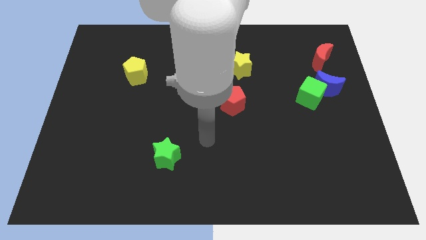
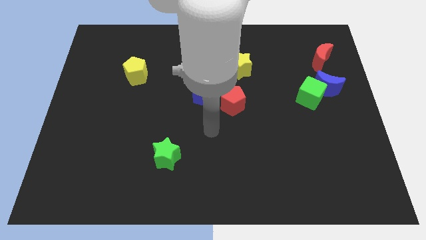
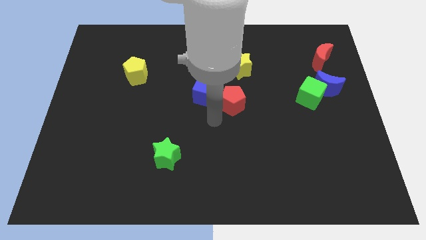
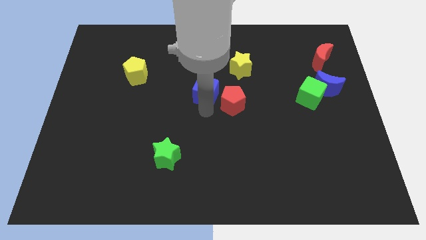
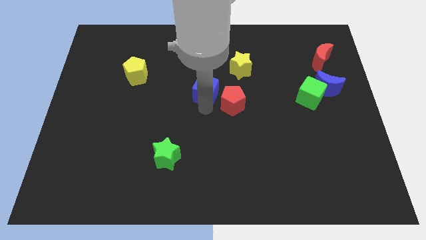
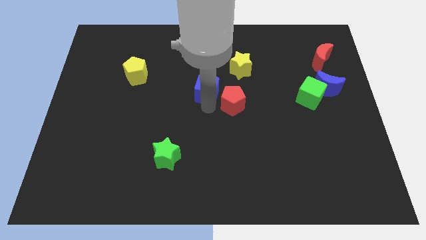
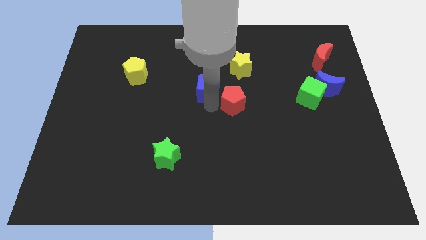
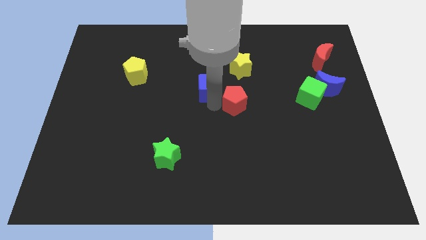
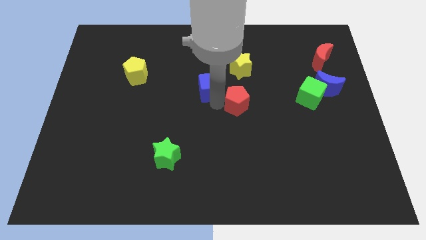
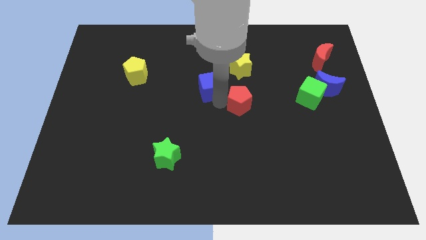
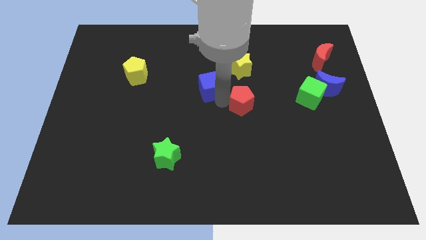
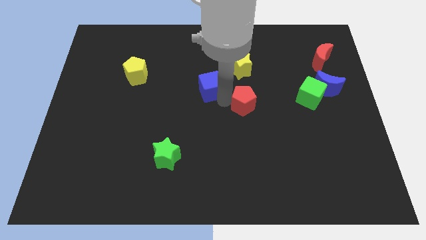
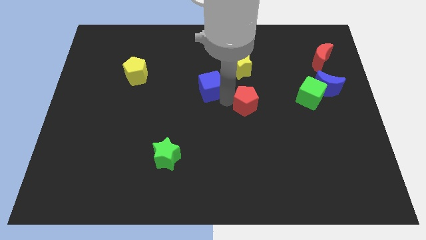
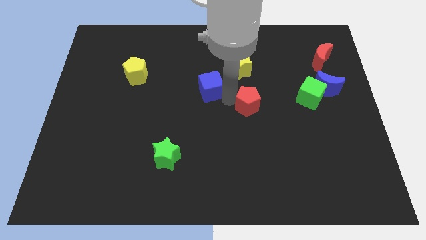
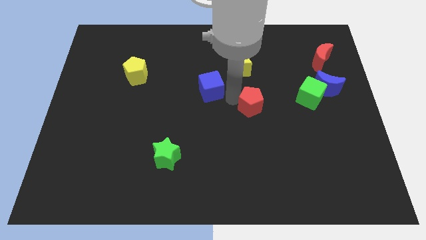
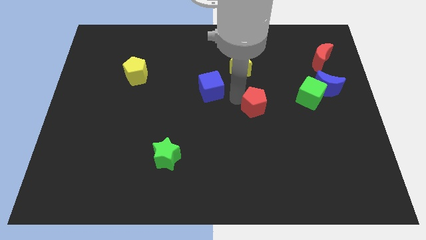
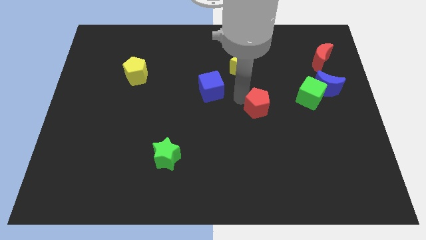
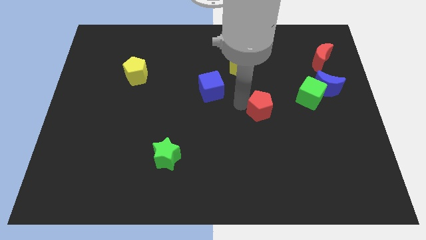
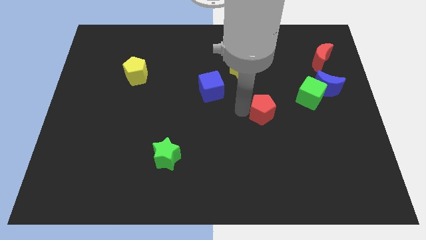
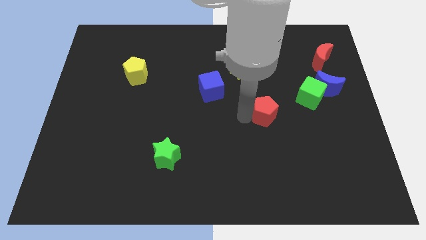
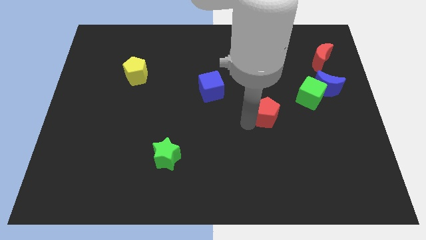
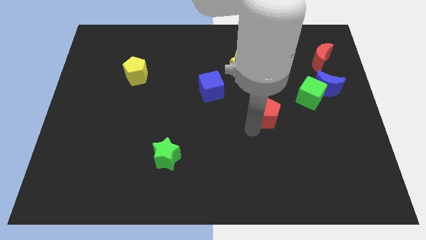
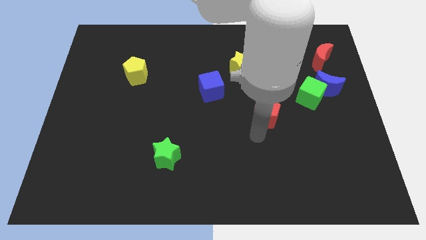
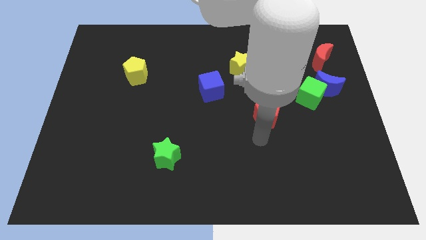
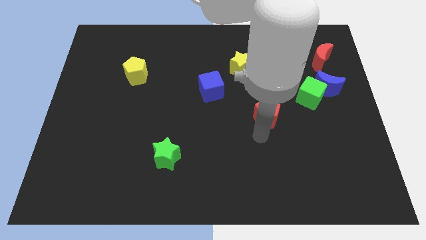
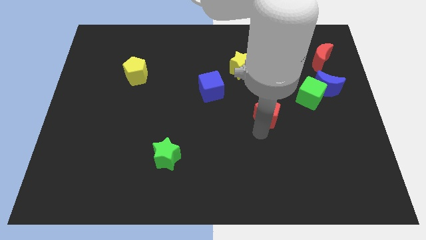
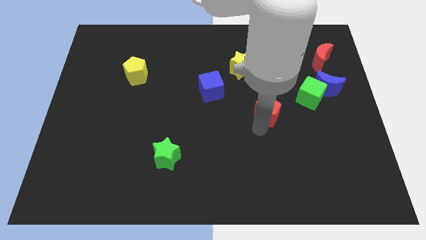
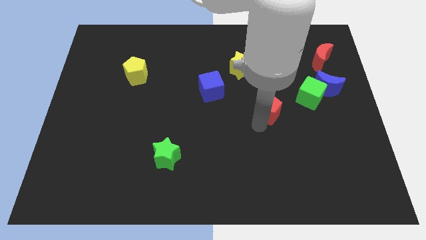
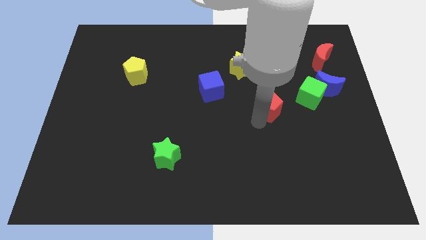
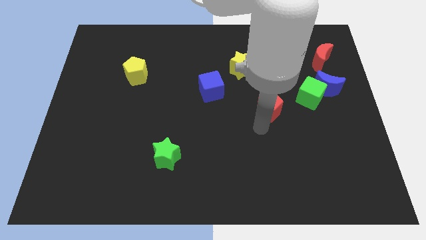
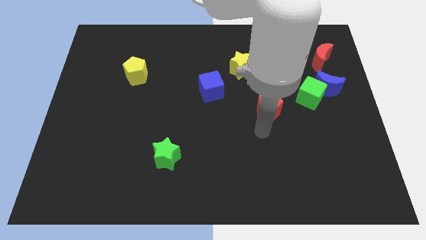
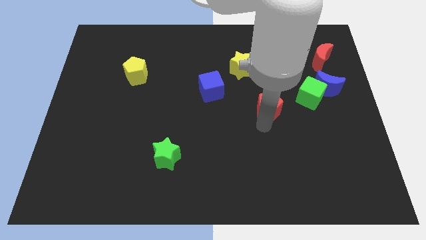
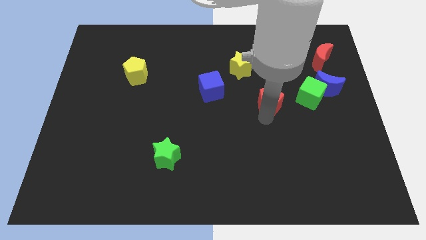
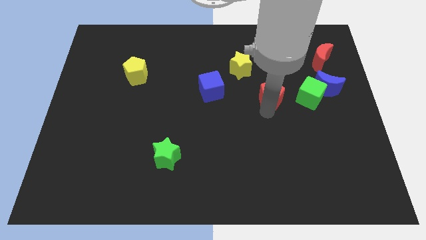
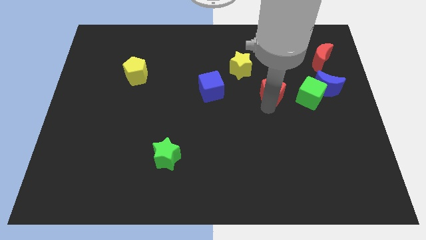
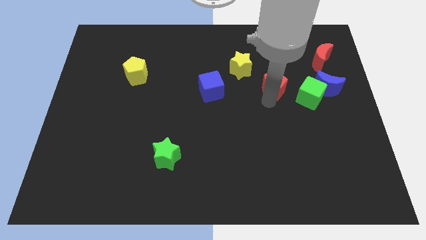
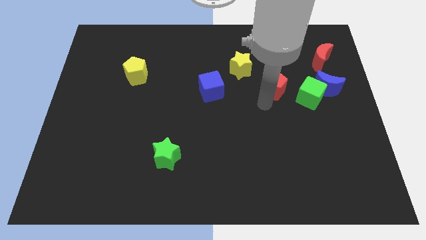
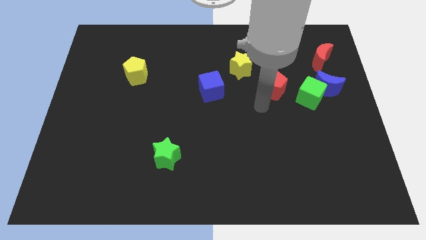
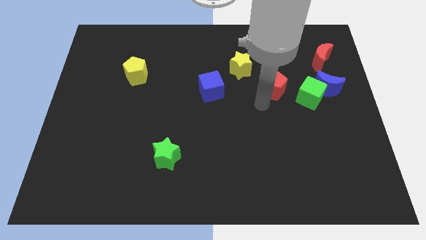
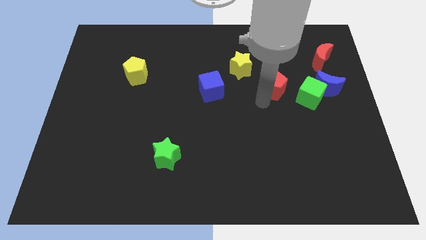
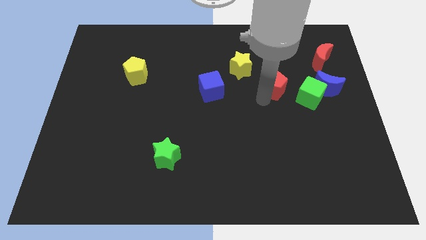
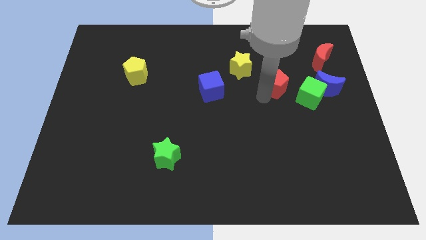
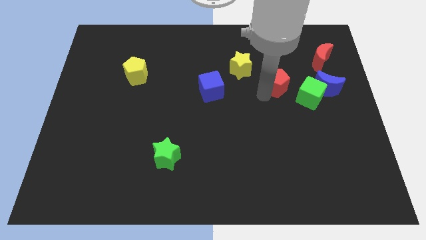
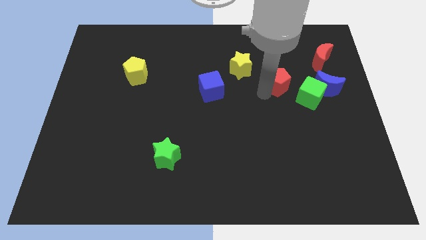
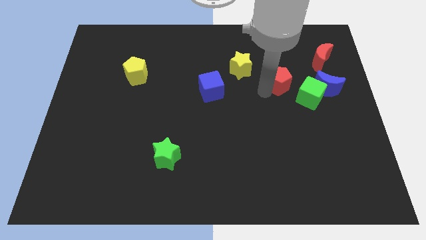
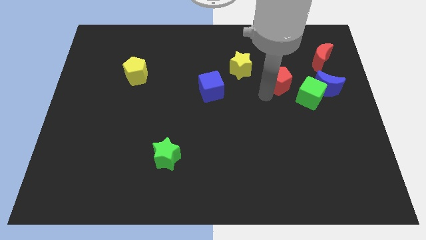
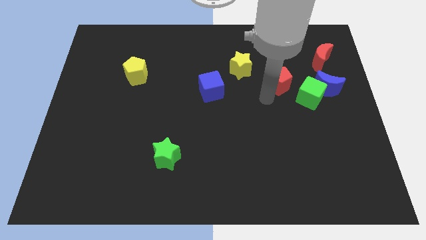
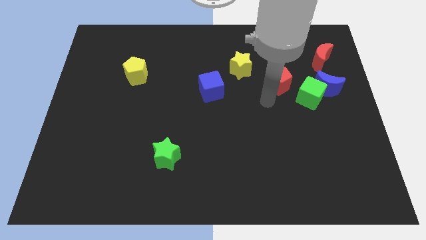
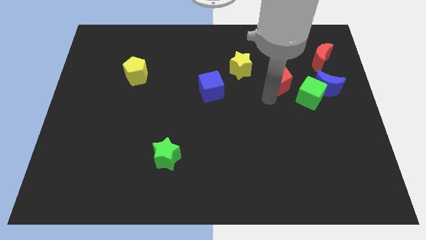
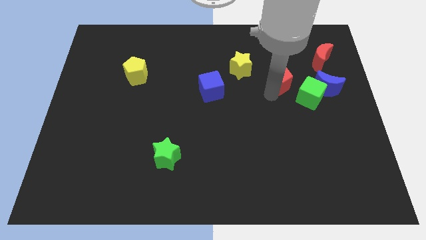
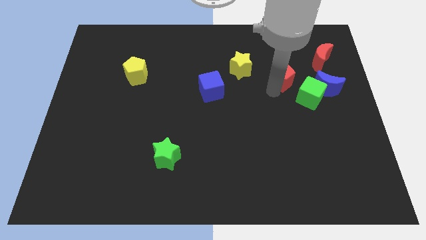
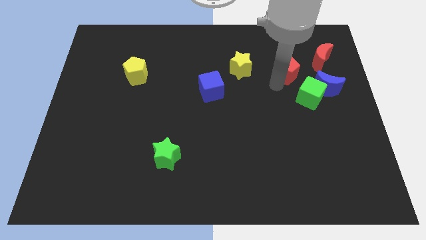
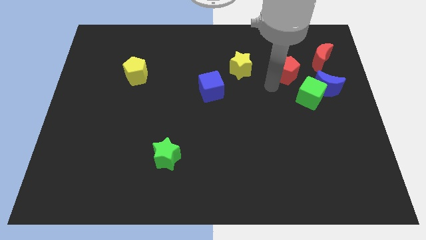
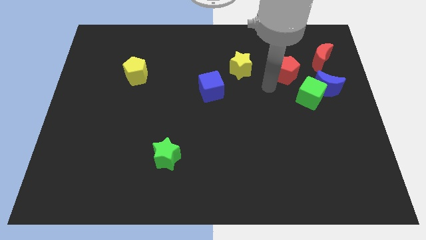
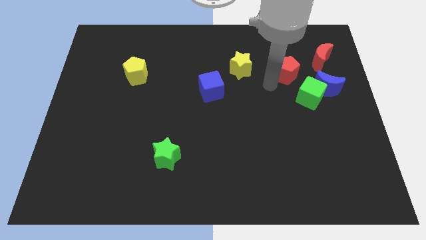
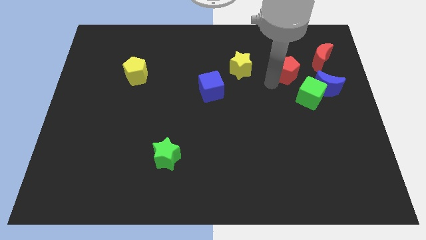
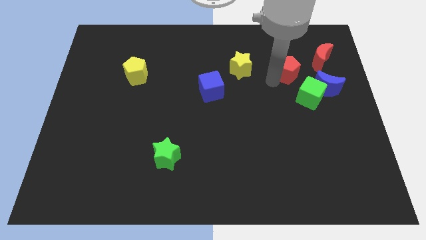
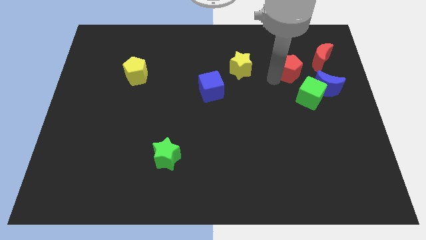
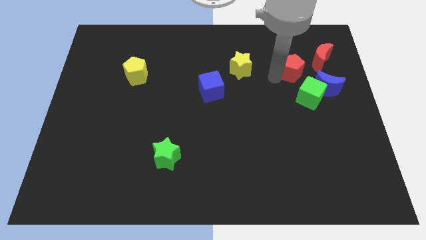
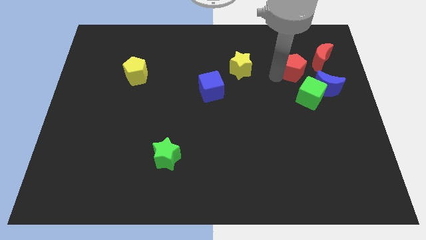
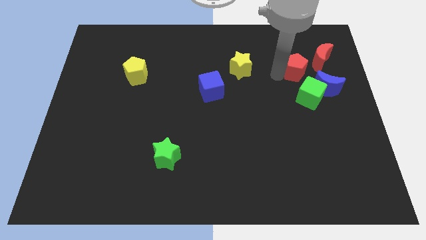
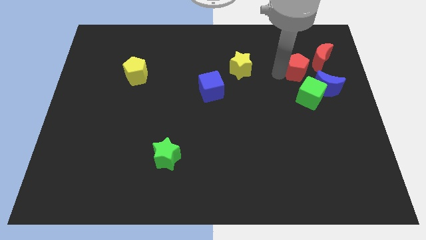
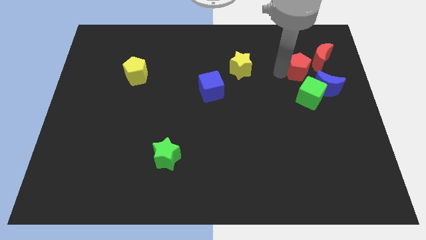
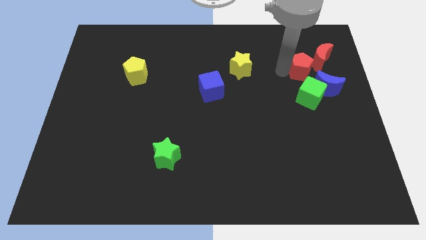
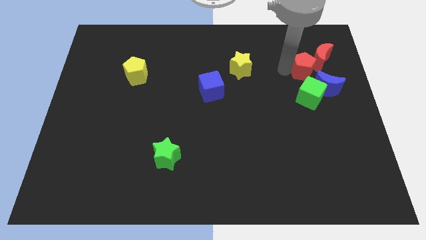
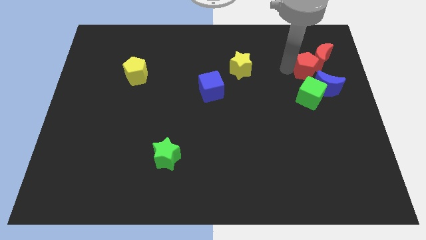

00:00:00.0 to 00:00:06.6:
move the red pentagon above the blue moon

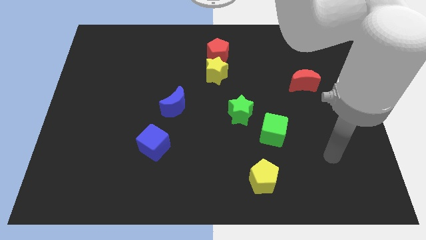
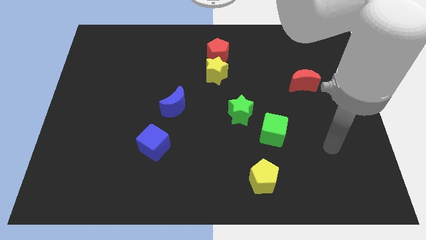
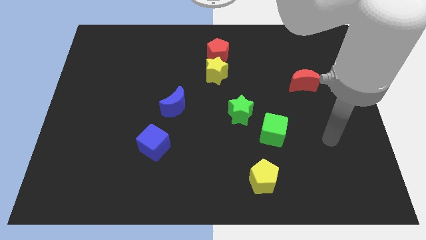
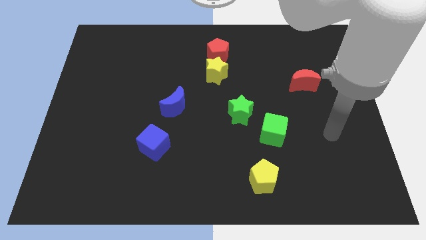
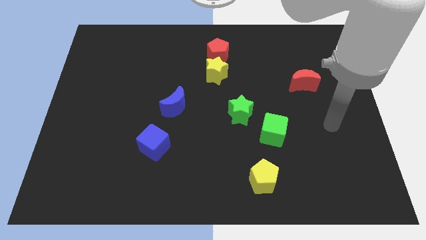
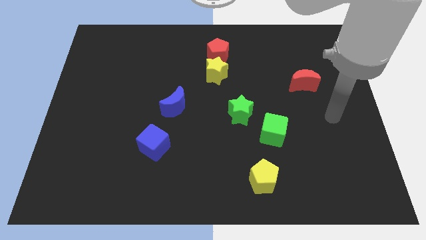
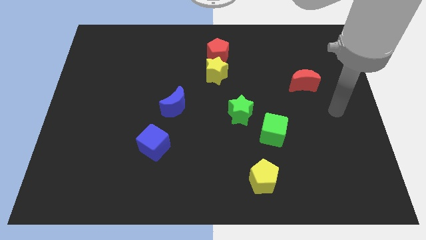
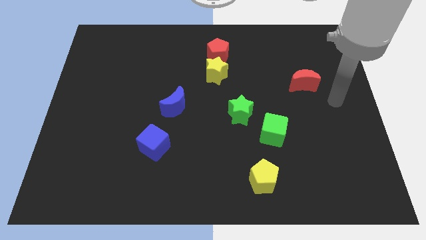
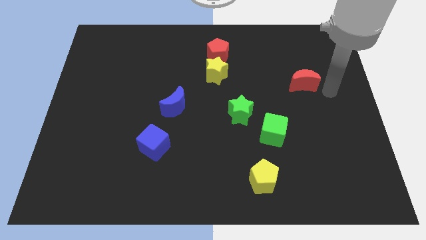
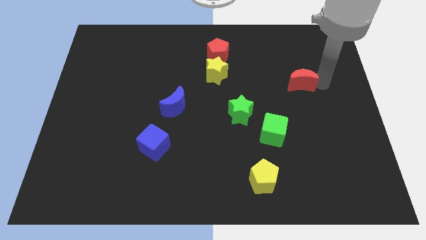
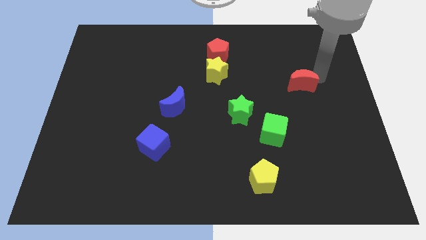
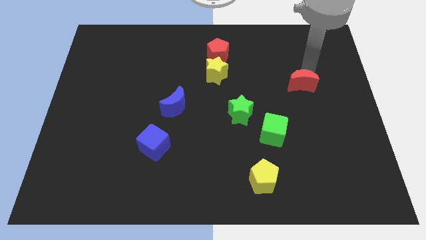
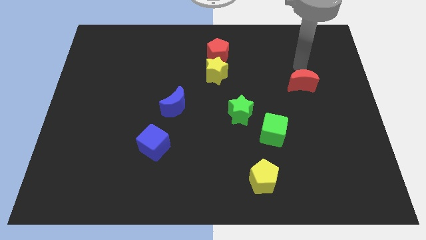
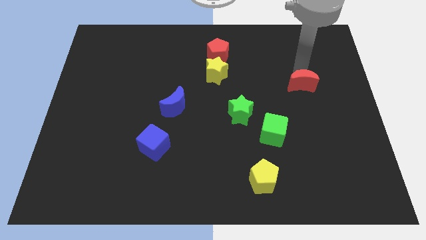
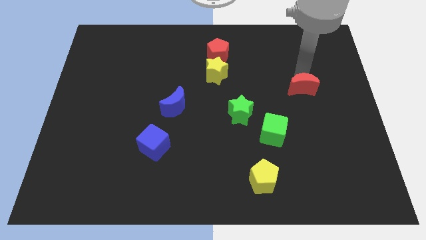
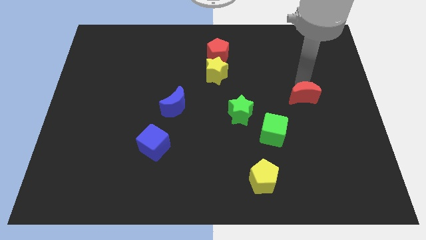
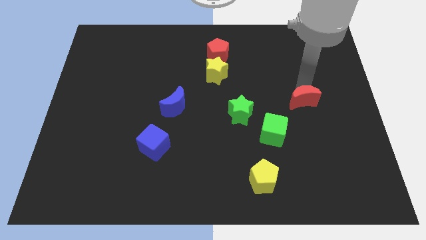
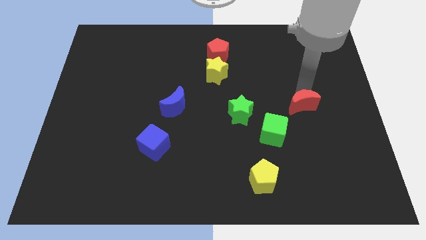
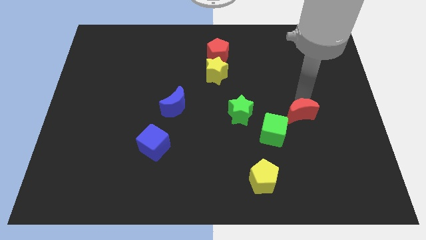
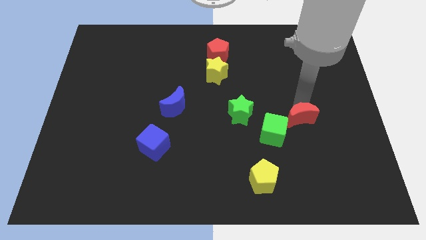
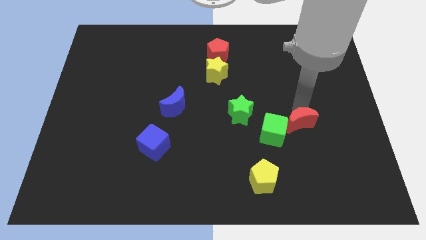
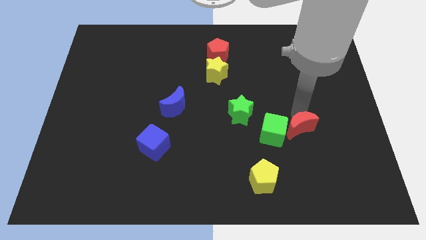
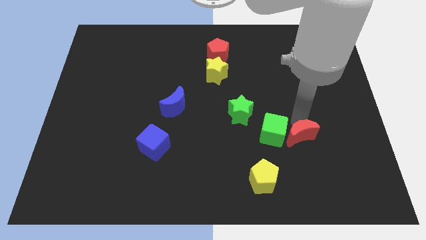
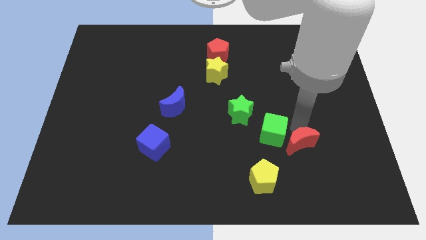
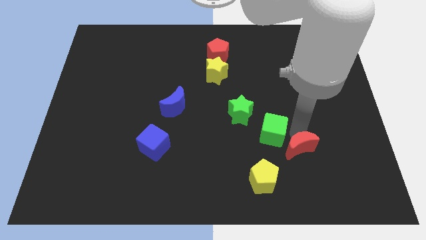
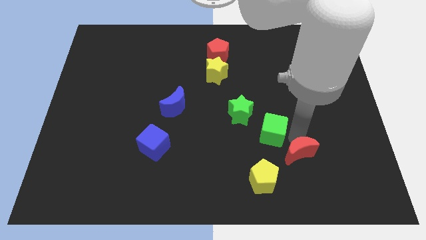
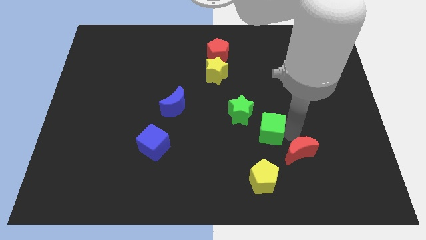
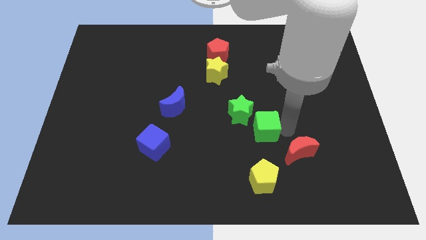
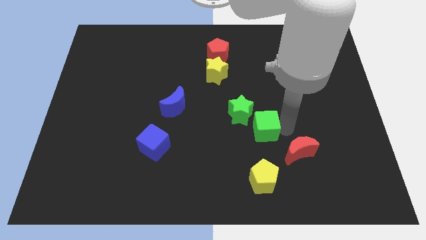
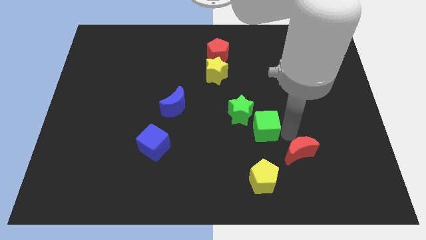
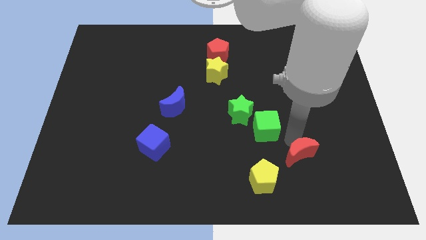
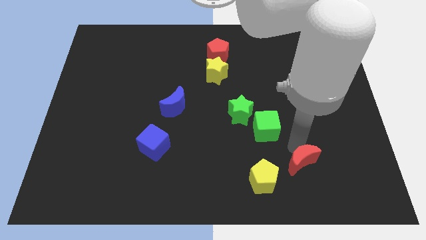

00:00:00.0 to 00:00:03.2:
put the red moon to the right of the yellow pentagon
